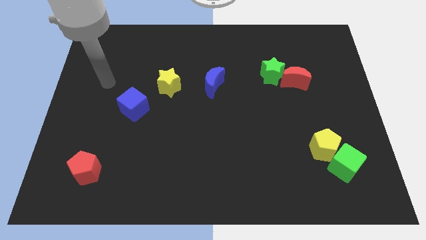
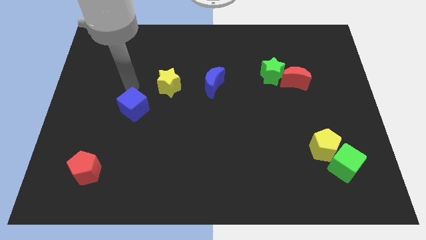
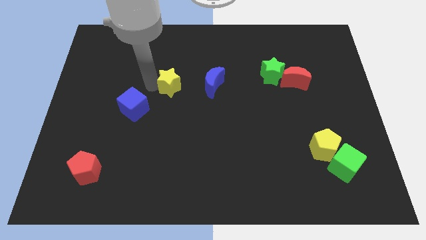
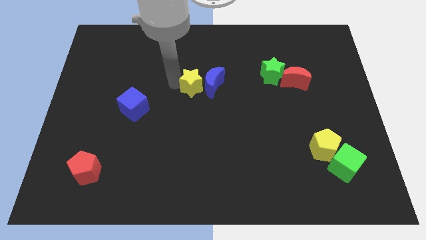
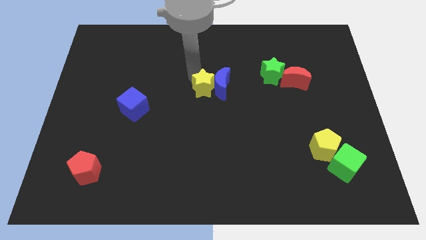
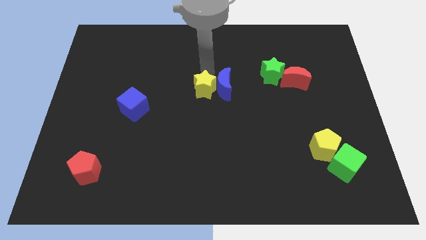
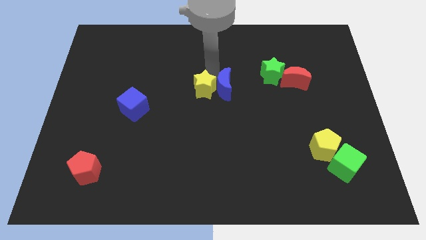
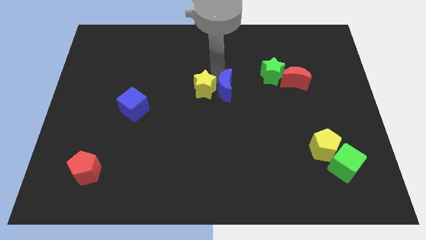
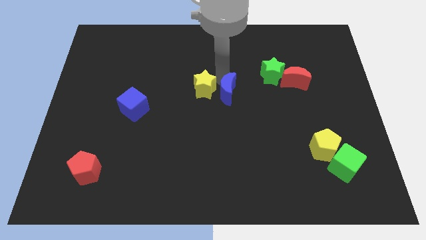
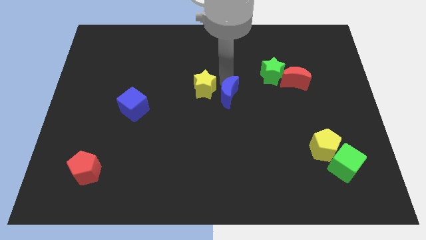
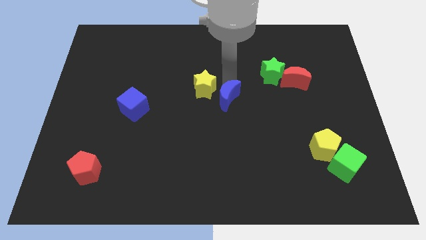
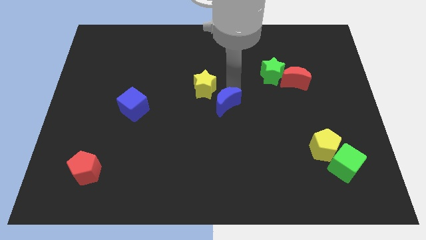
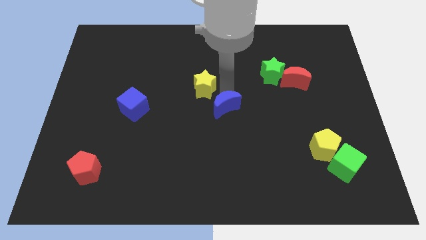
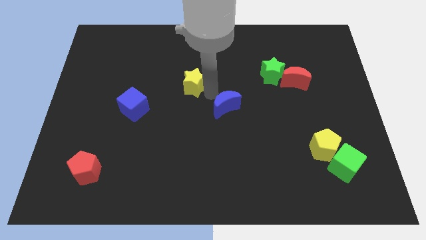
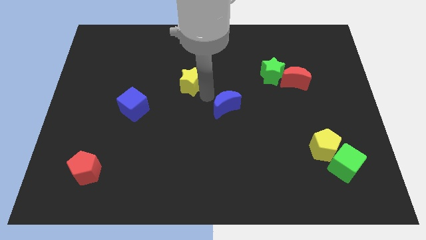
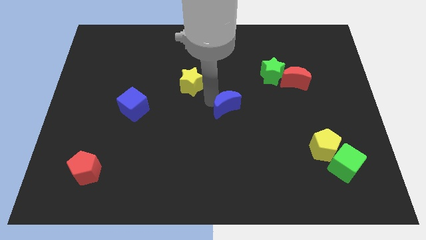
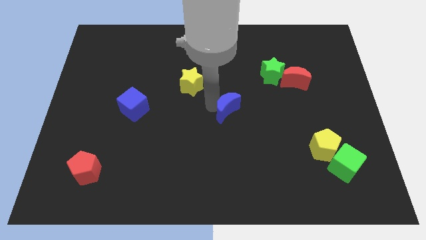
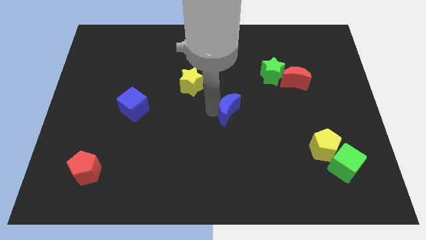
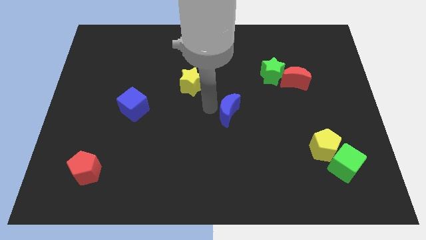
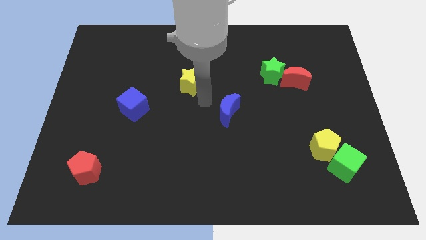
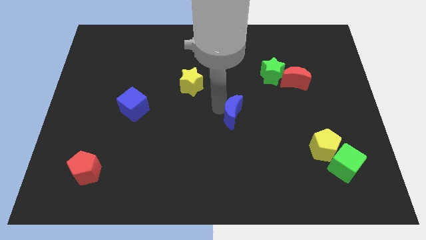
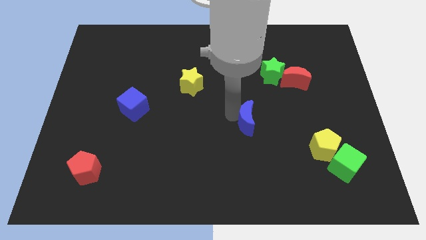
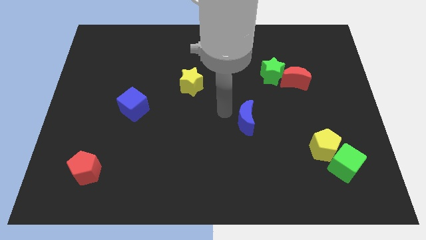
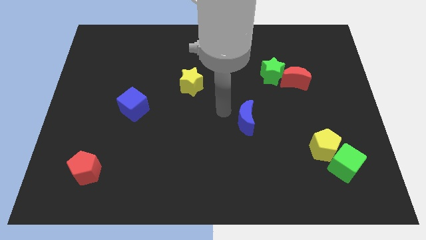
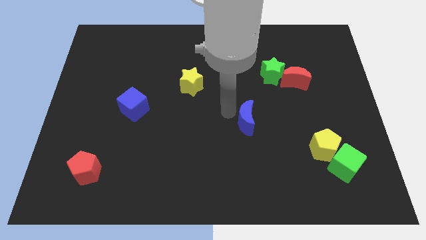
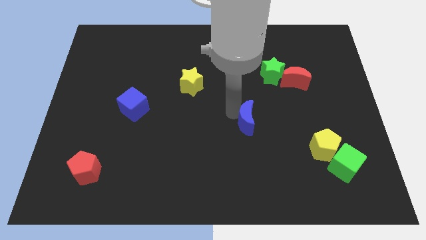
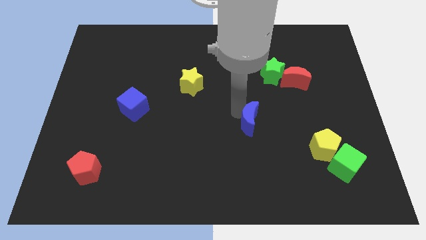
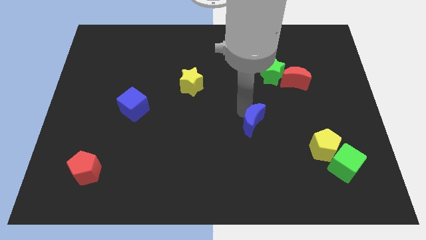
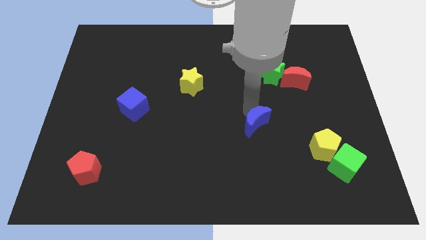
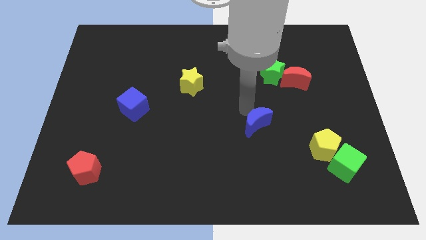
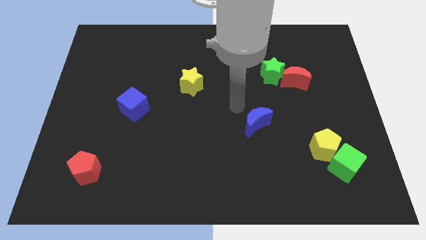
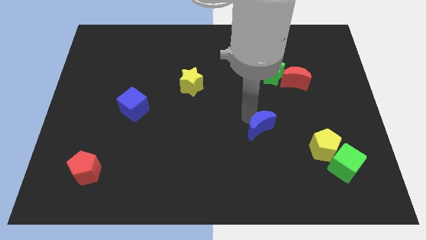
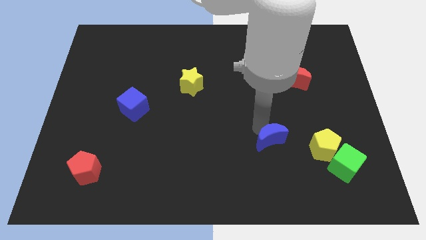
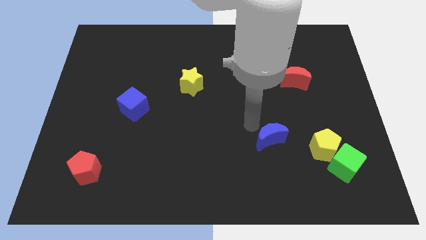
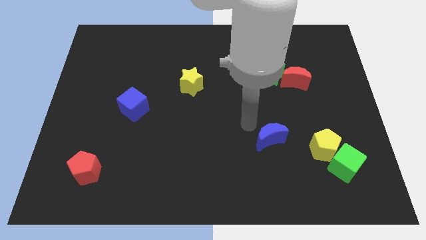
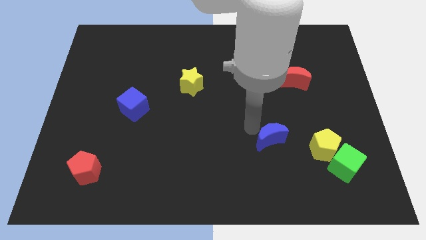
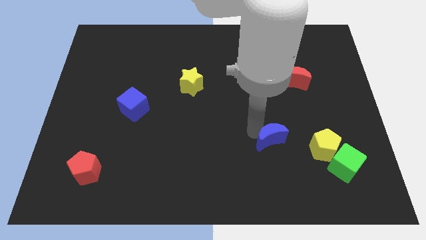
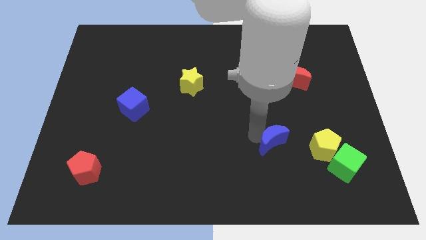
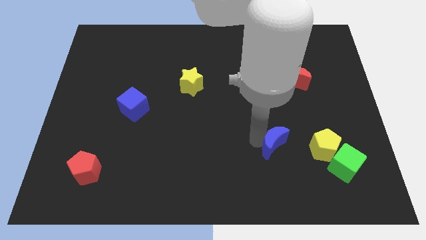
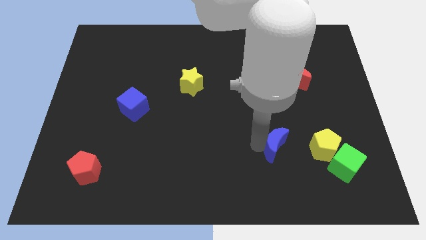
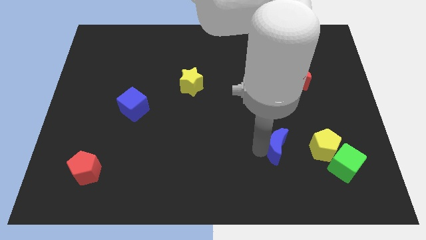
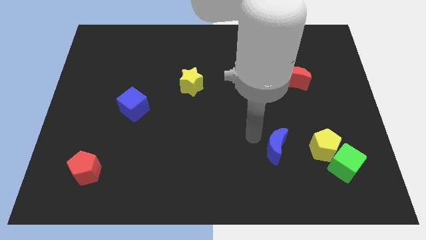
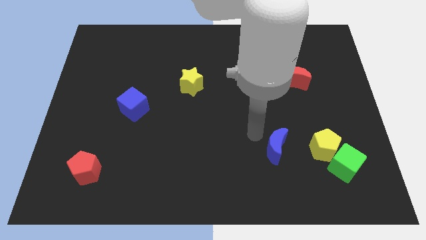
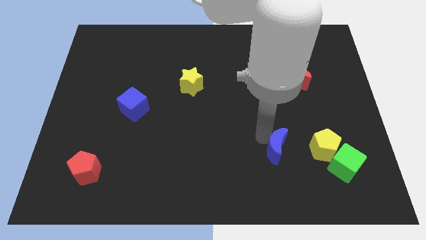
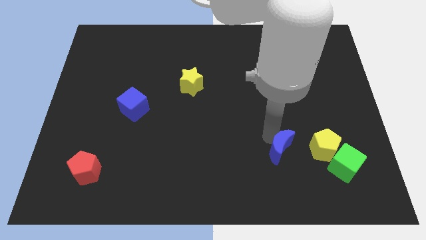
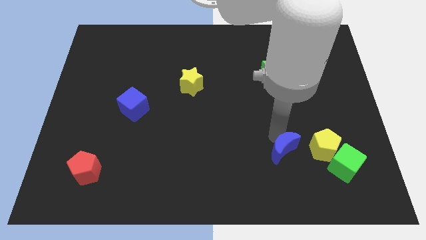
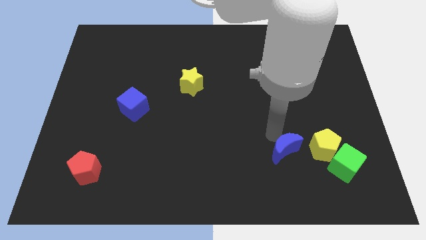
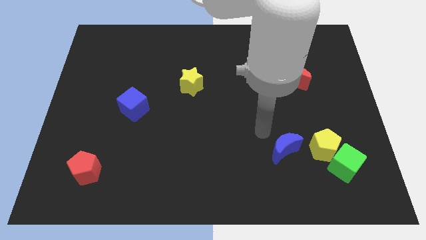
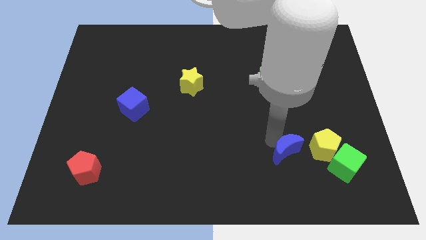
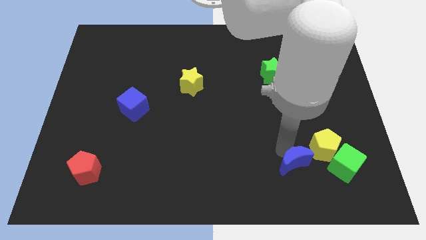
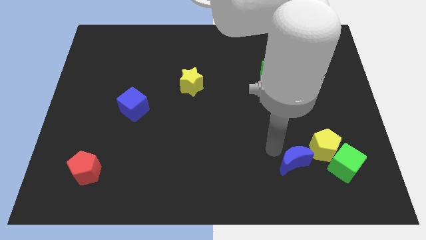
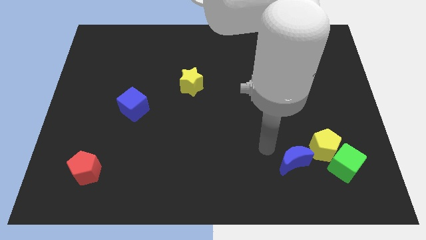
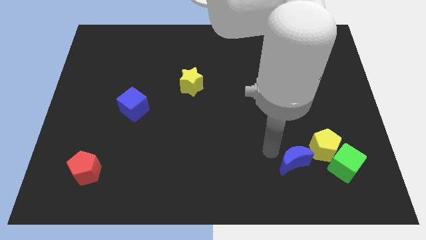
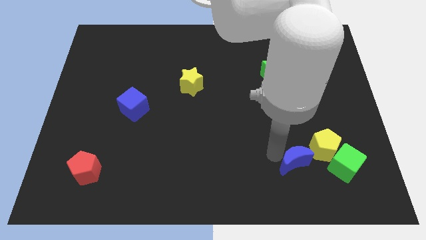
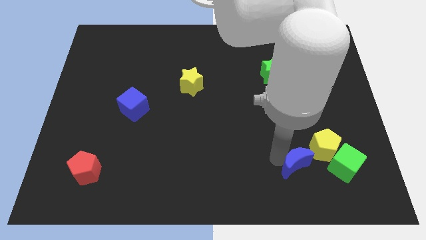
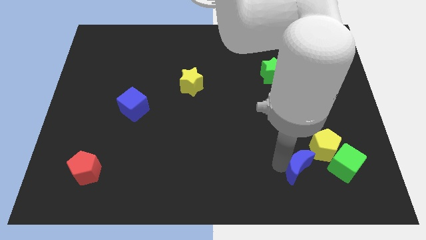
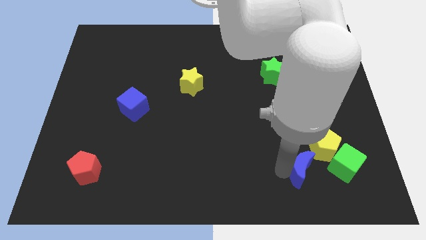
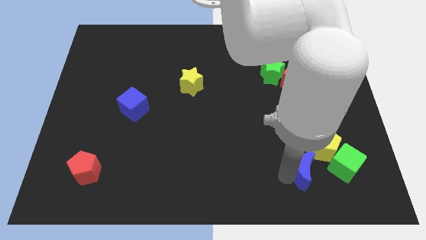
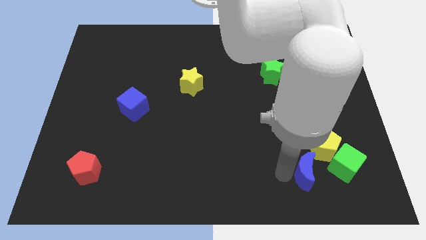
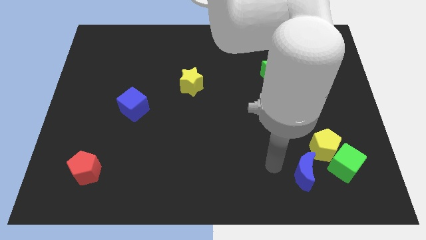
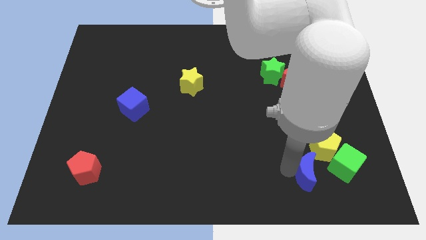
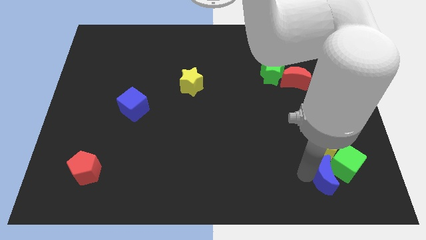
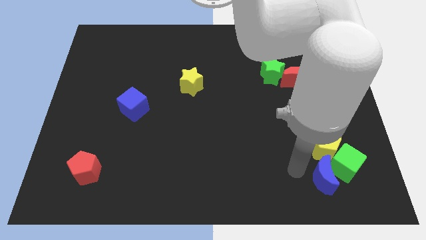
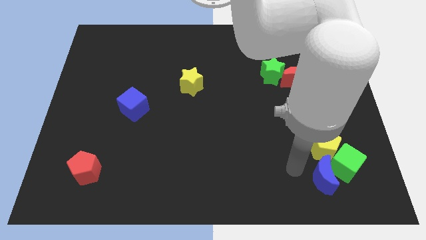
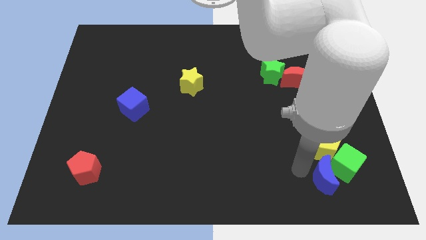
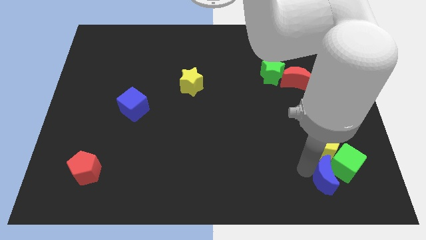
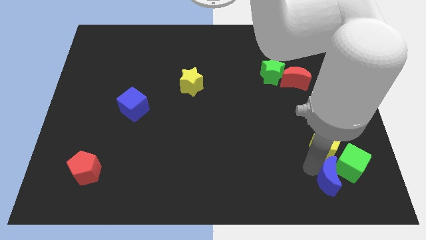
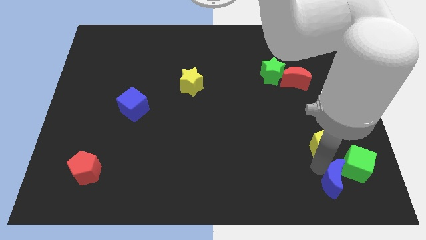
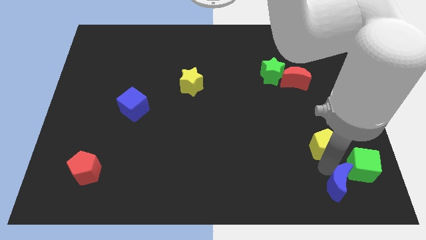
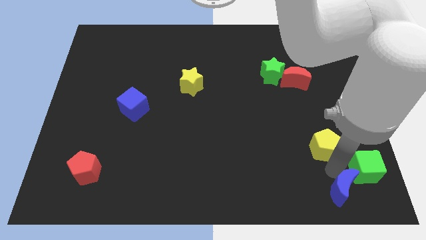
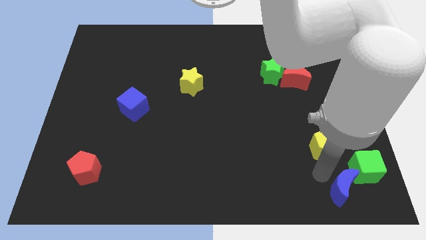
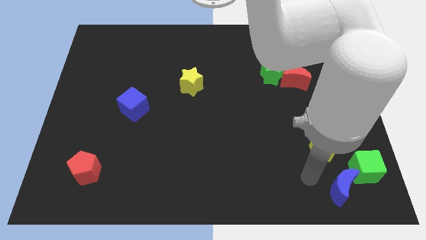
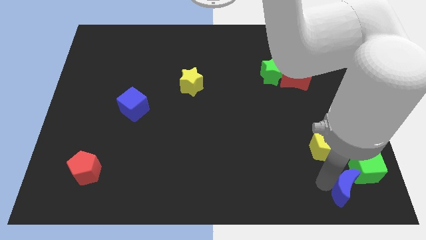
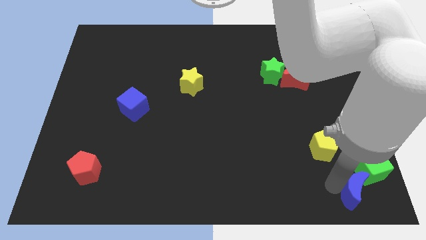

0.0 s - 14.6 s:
put the blue moon to the bottom right of the board
